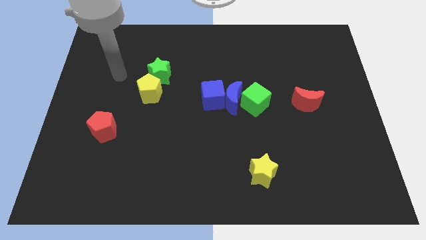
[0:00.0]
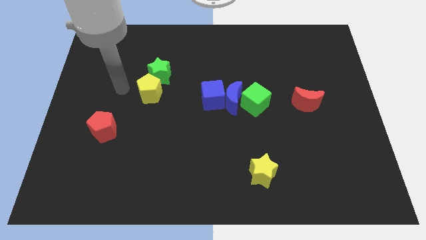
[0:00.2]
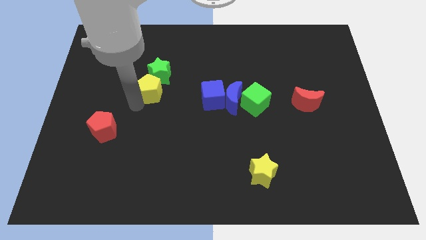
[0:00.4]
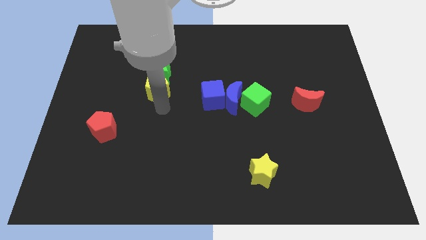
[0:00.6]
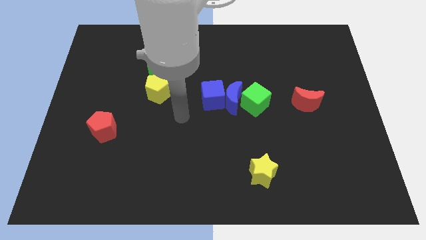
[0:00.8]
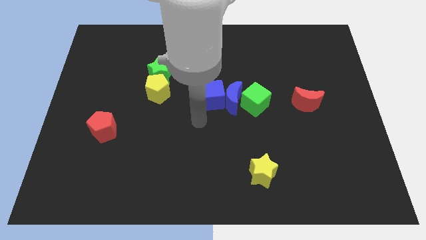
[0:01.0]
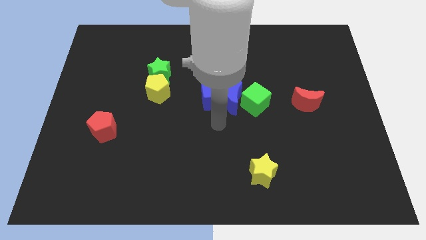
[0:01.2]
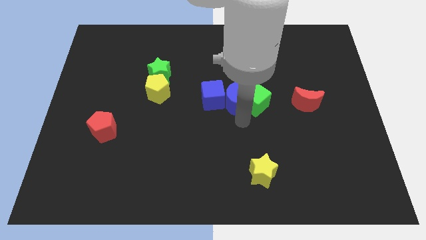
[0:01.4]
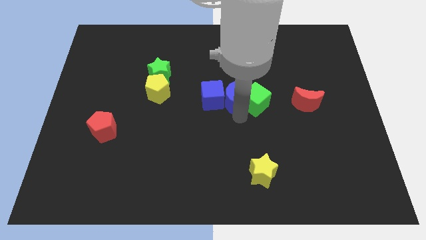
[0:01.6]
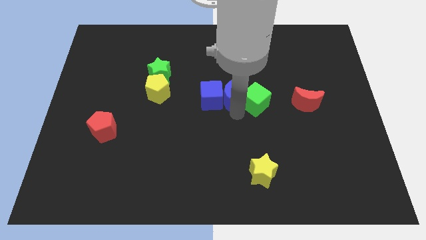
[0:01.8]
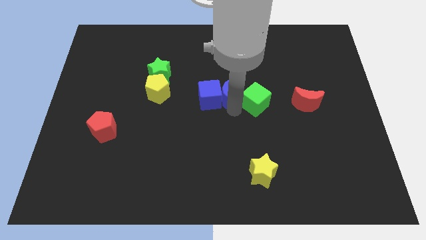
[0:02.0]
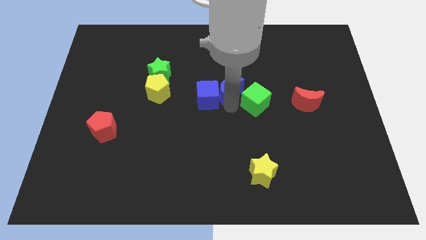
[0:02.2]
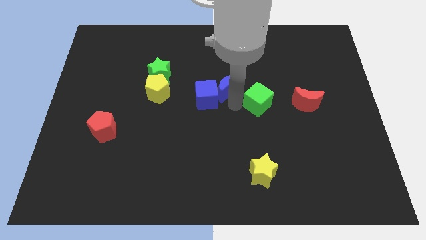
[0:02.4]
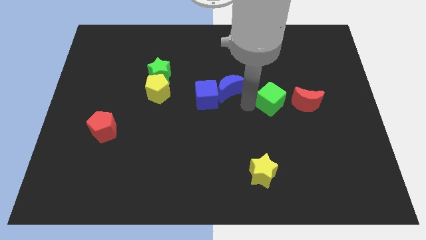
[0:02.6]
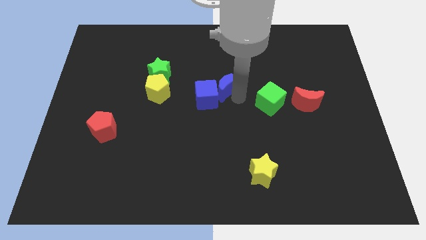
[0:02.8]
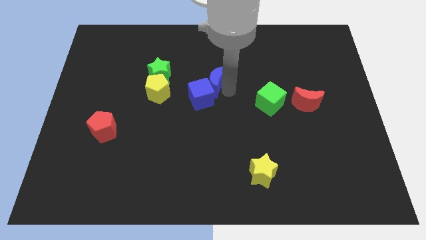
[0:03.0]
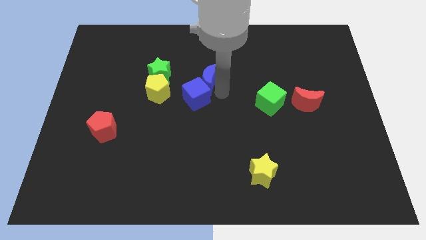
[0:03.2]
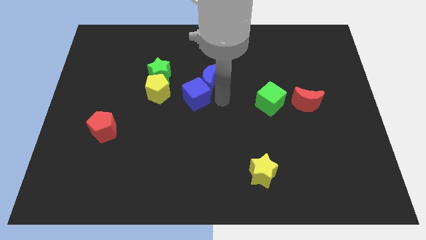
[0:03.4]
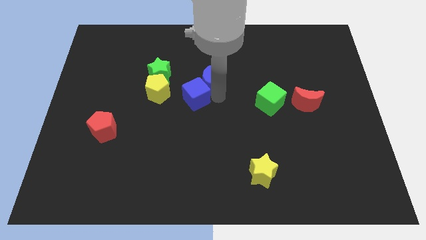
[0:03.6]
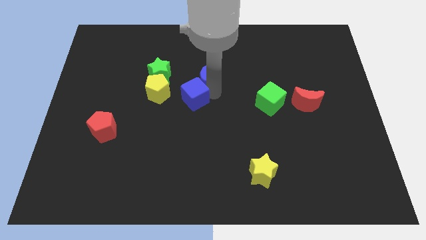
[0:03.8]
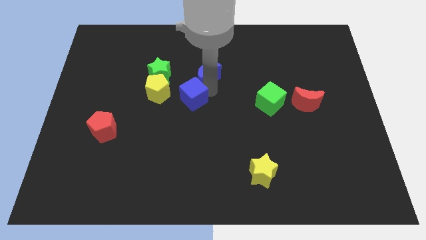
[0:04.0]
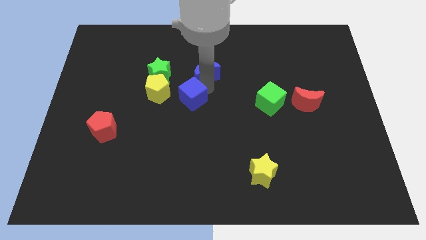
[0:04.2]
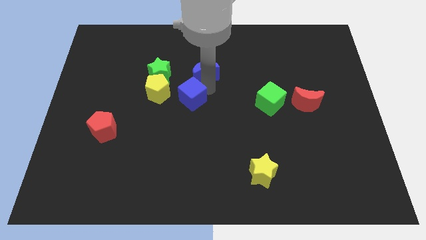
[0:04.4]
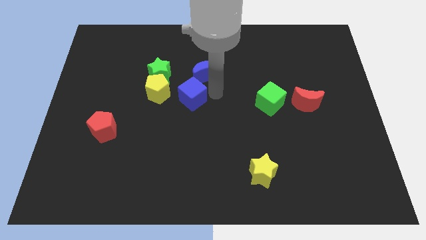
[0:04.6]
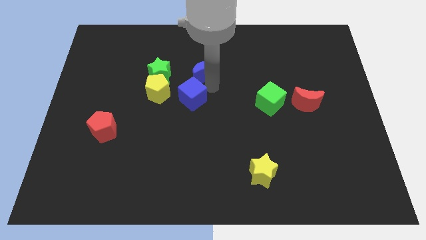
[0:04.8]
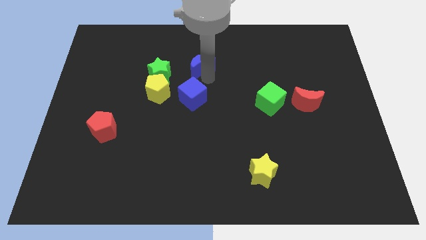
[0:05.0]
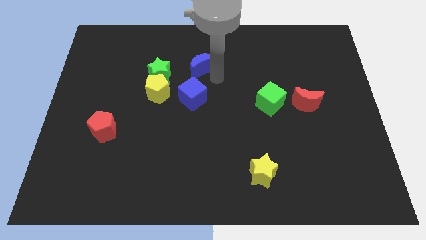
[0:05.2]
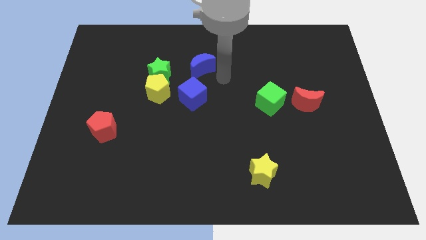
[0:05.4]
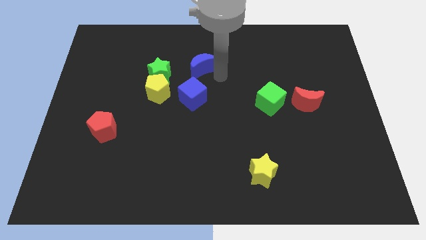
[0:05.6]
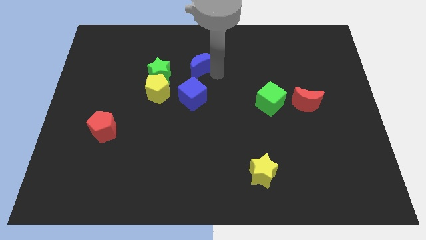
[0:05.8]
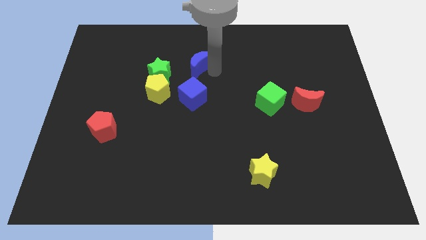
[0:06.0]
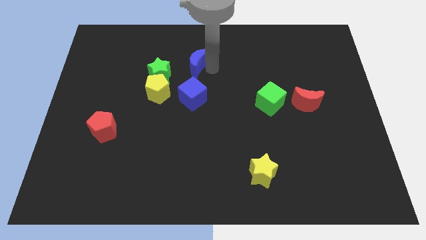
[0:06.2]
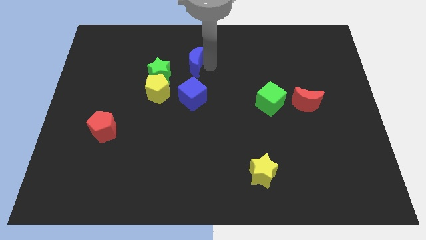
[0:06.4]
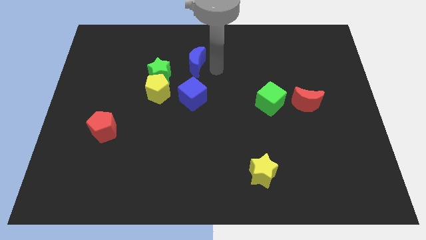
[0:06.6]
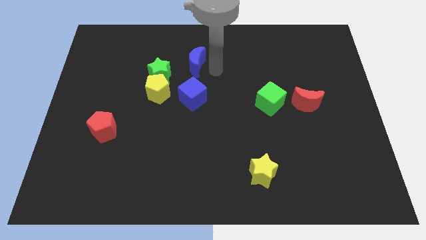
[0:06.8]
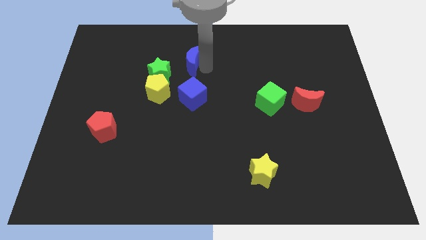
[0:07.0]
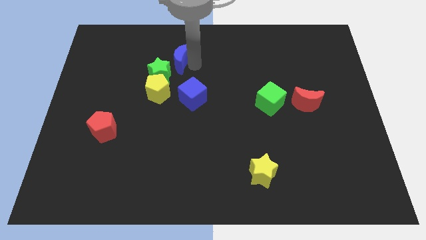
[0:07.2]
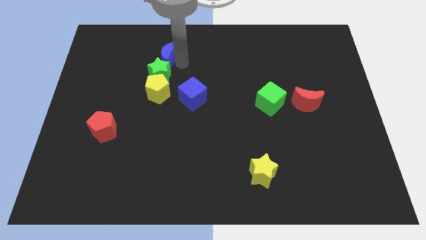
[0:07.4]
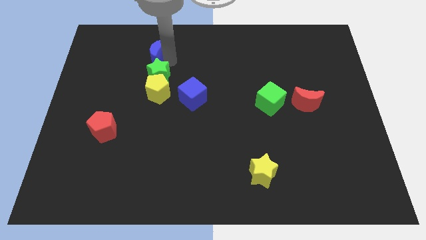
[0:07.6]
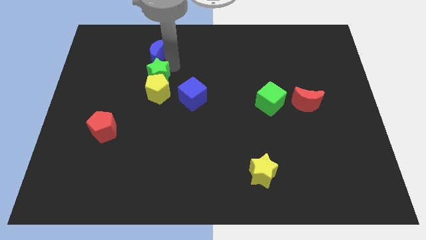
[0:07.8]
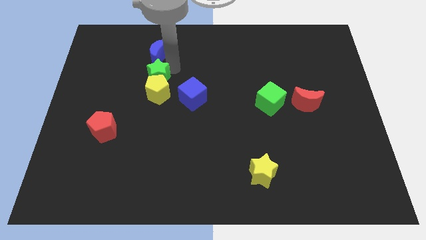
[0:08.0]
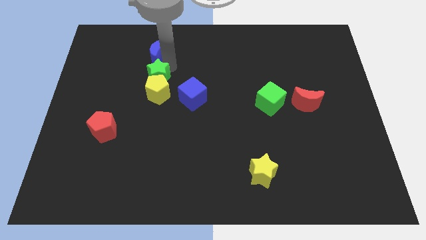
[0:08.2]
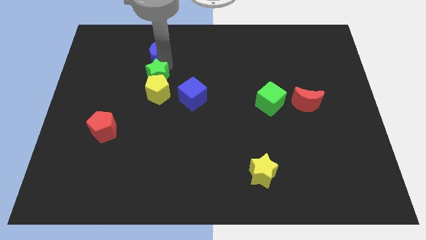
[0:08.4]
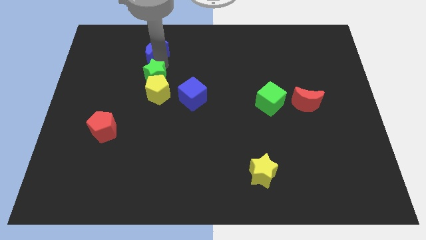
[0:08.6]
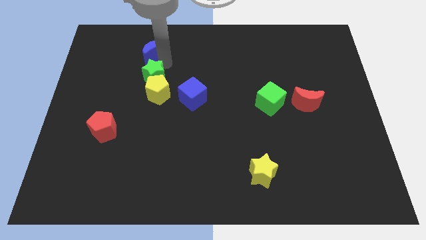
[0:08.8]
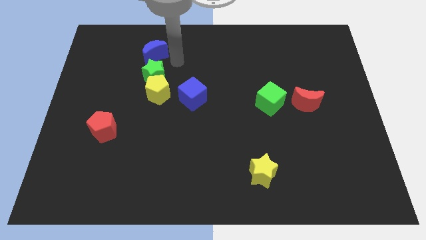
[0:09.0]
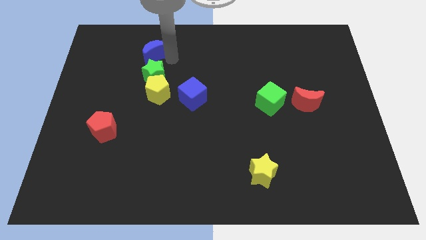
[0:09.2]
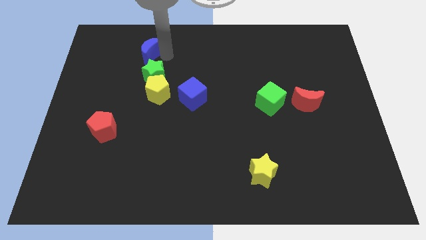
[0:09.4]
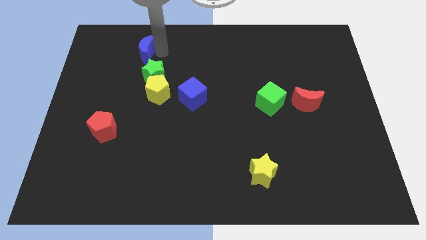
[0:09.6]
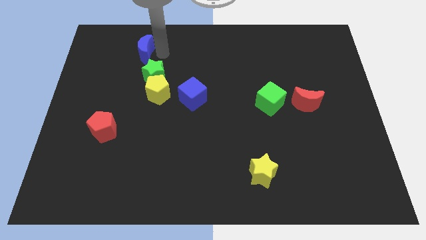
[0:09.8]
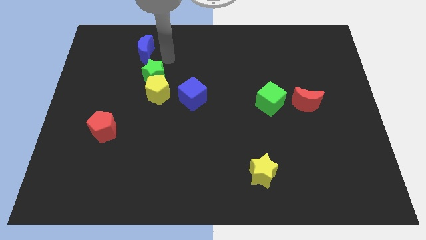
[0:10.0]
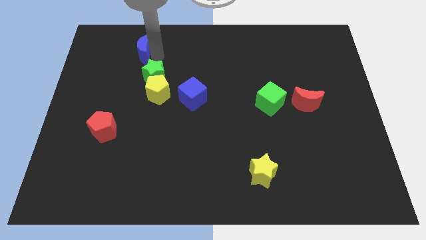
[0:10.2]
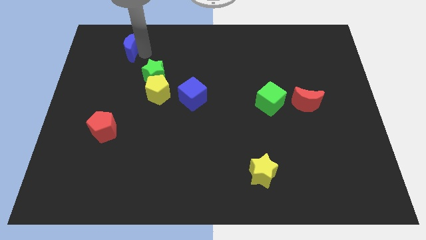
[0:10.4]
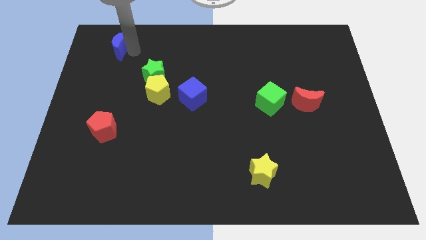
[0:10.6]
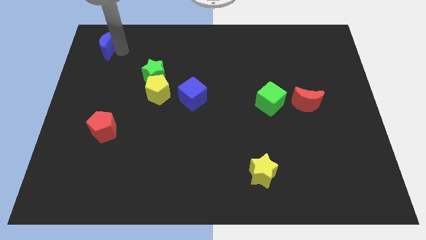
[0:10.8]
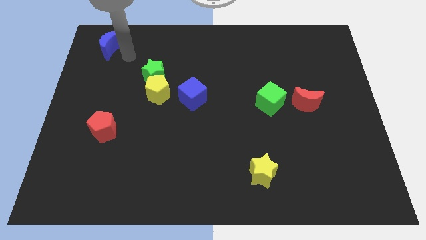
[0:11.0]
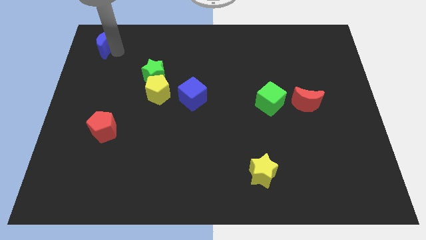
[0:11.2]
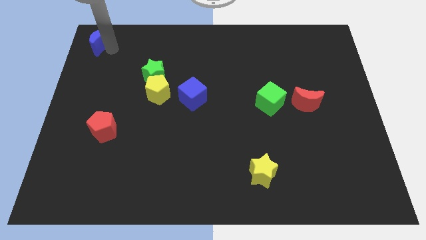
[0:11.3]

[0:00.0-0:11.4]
put the blue moon to the top left
